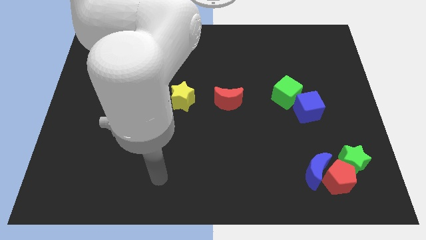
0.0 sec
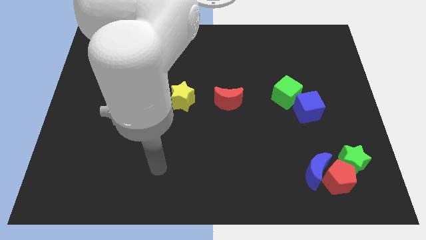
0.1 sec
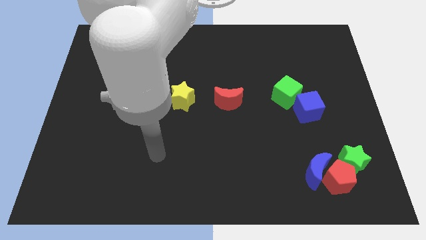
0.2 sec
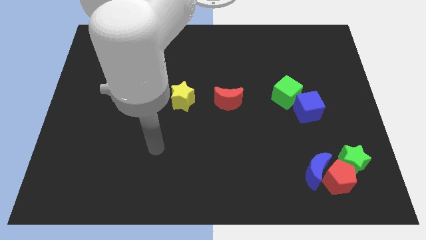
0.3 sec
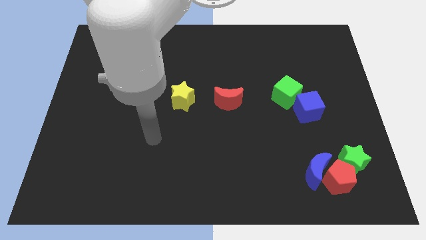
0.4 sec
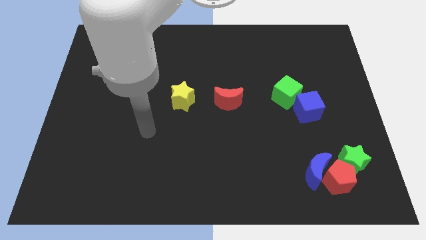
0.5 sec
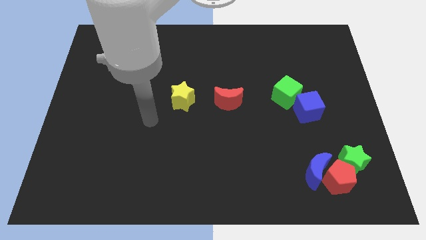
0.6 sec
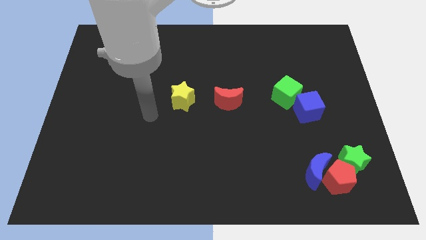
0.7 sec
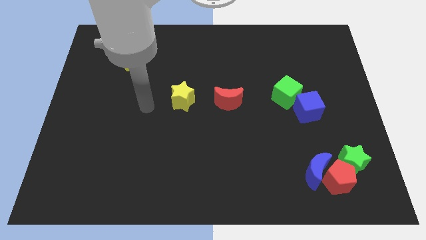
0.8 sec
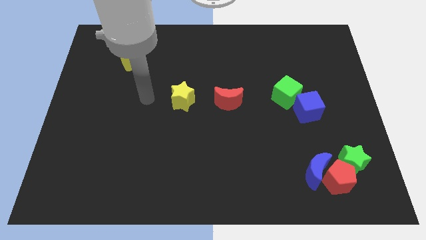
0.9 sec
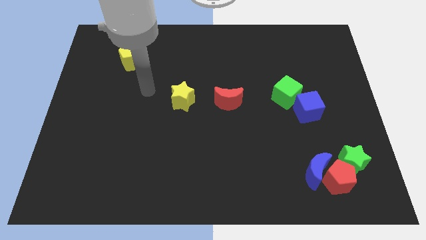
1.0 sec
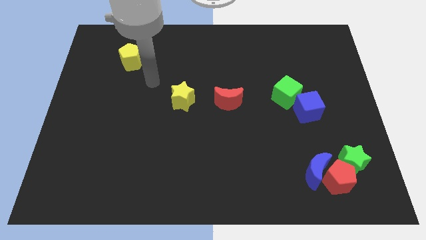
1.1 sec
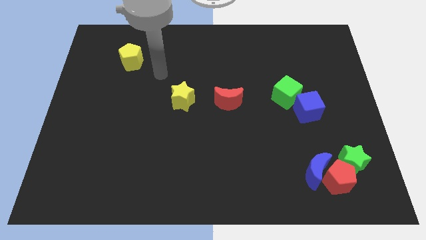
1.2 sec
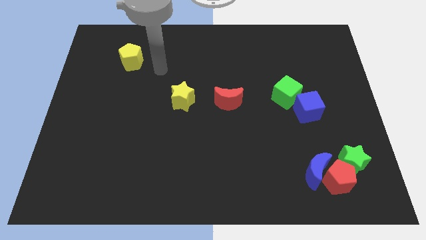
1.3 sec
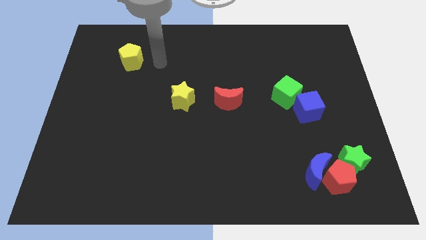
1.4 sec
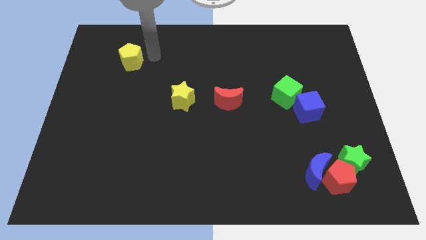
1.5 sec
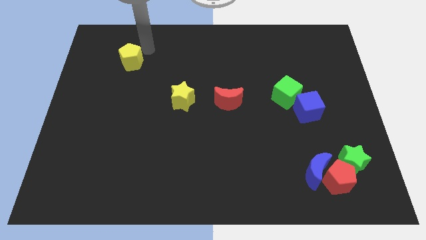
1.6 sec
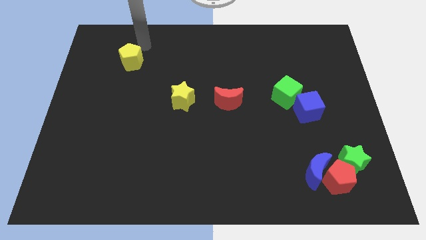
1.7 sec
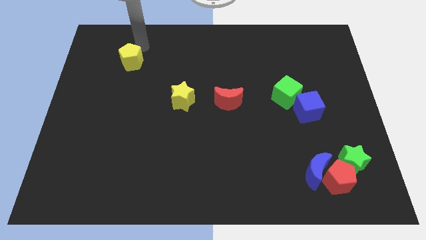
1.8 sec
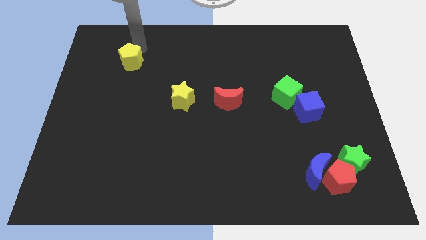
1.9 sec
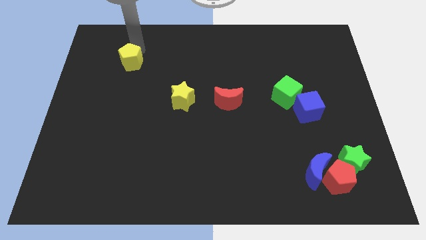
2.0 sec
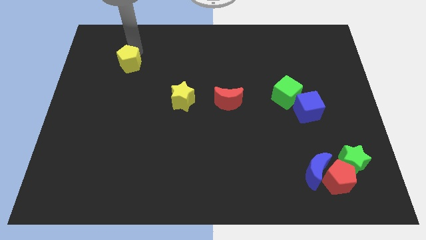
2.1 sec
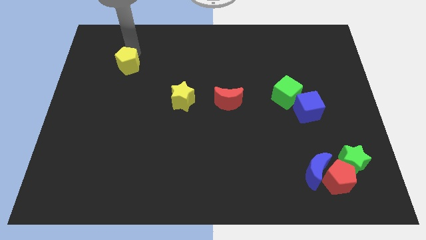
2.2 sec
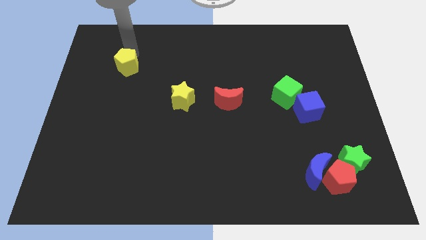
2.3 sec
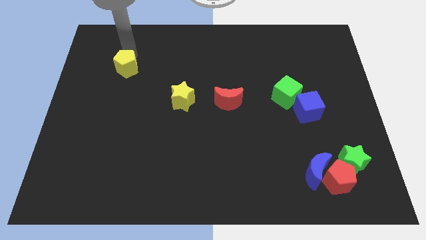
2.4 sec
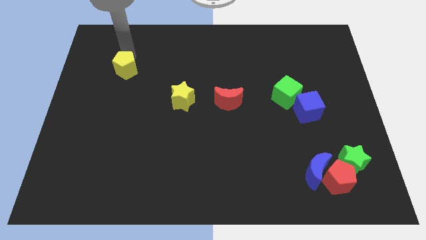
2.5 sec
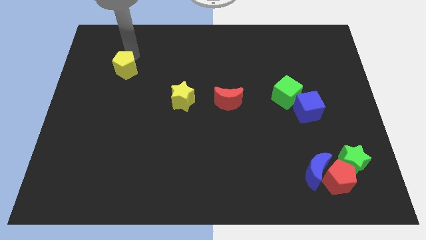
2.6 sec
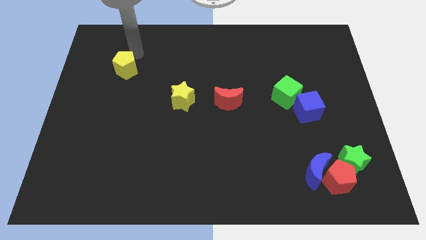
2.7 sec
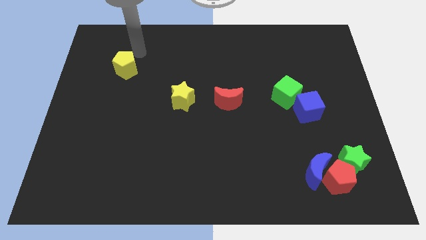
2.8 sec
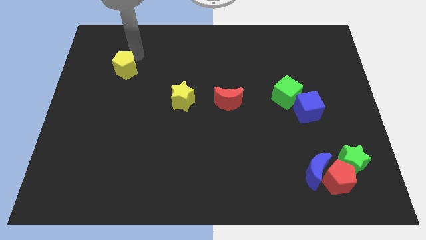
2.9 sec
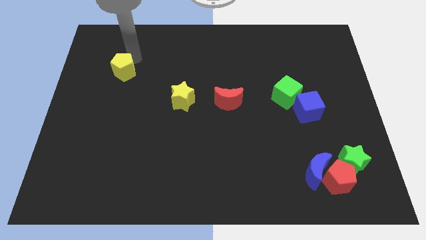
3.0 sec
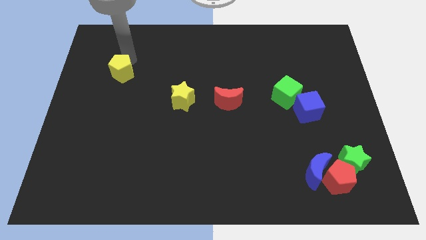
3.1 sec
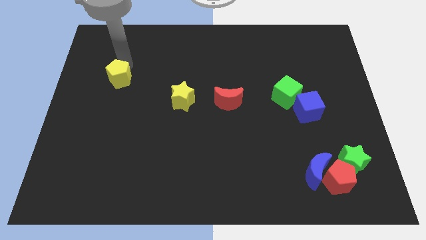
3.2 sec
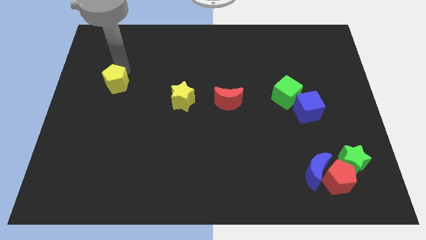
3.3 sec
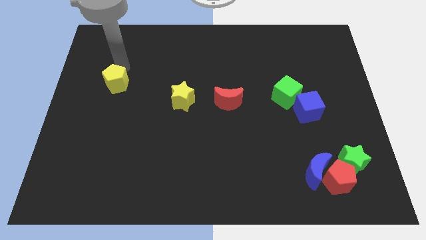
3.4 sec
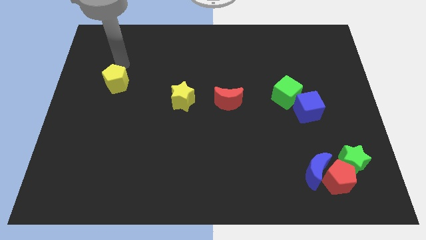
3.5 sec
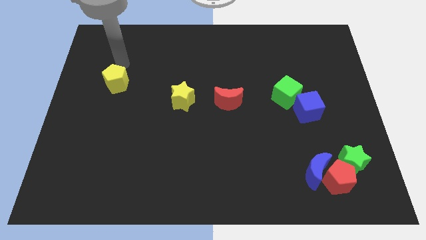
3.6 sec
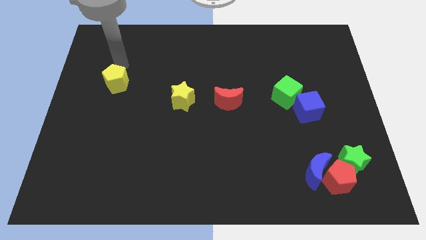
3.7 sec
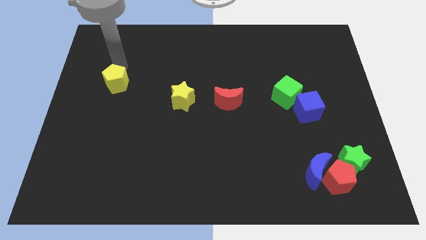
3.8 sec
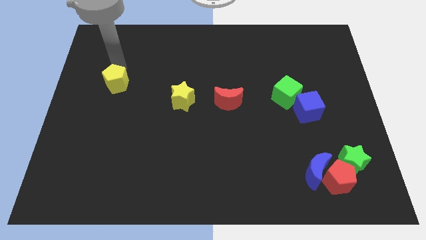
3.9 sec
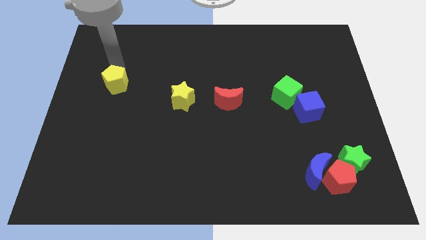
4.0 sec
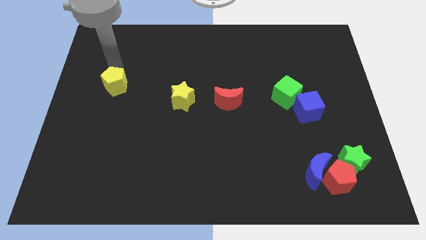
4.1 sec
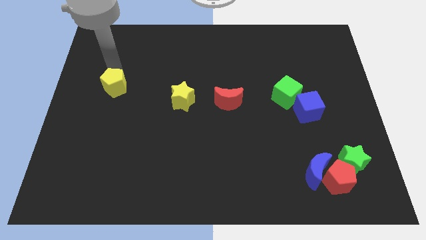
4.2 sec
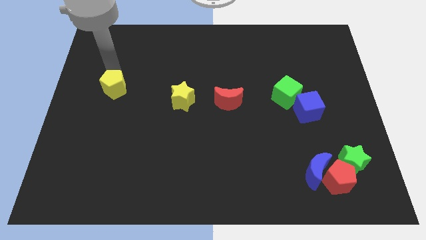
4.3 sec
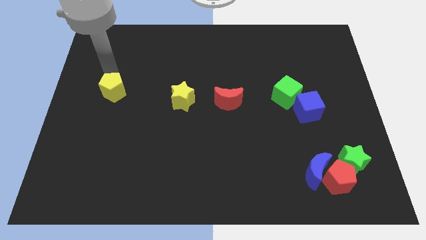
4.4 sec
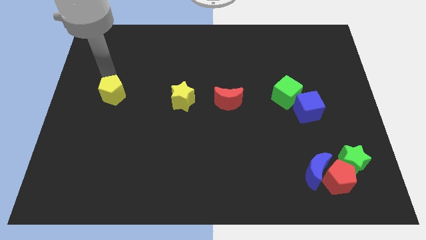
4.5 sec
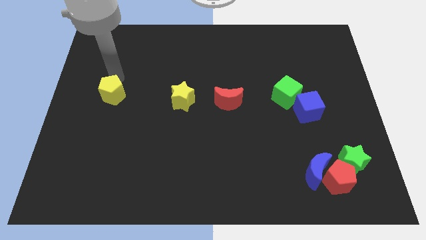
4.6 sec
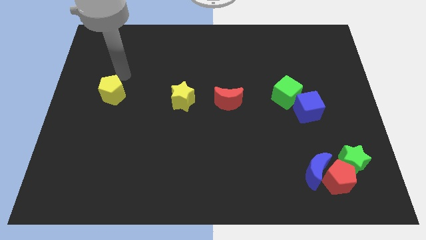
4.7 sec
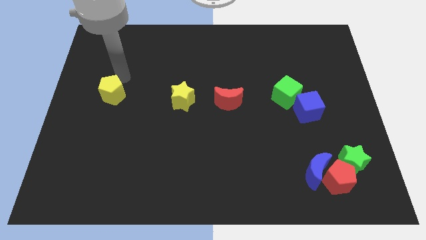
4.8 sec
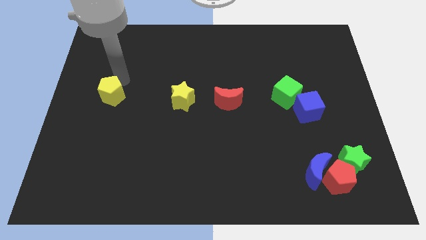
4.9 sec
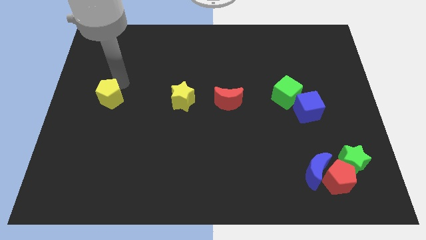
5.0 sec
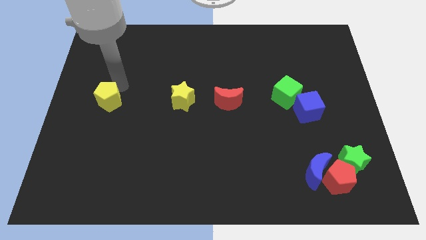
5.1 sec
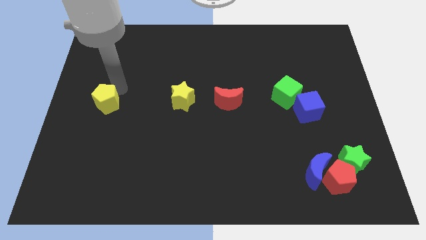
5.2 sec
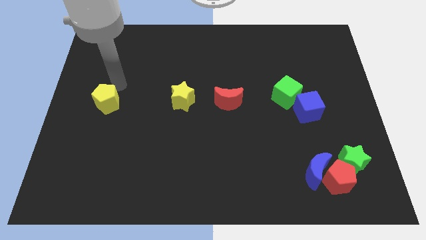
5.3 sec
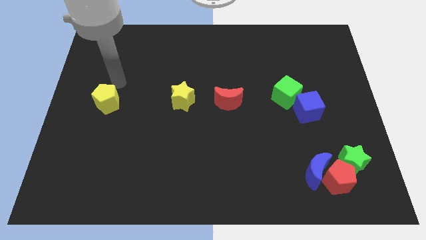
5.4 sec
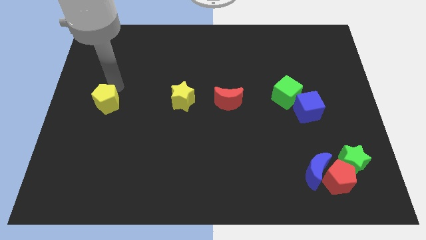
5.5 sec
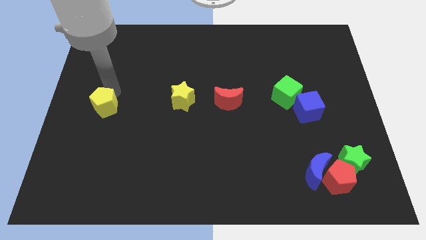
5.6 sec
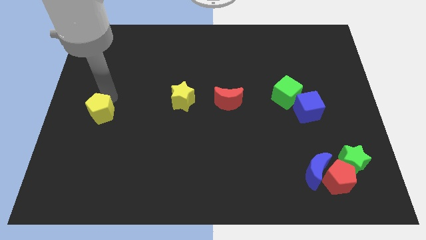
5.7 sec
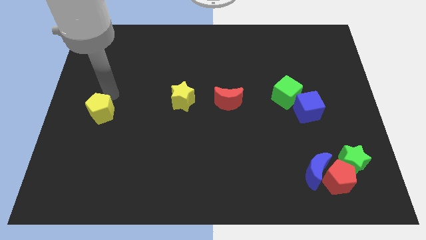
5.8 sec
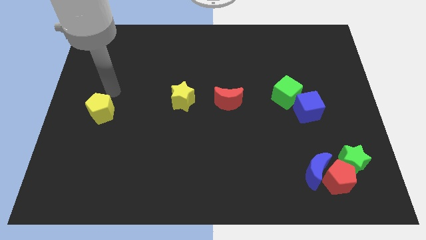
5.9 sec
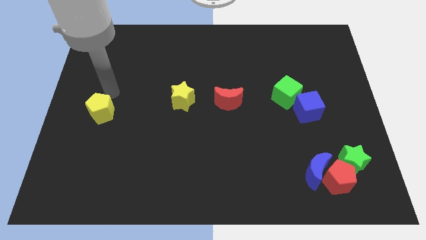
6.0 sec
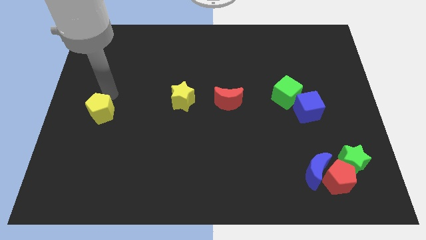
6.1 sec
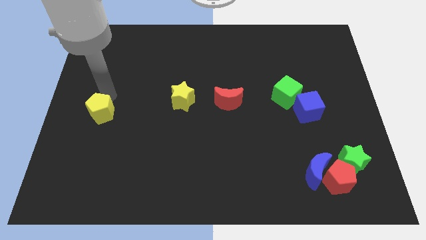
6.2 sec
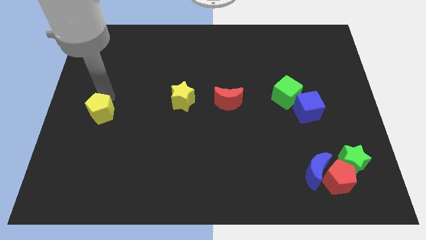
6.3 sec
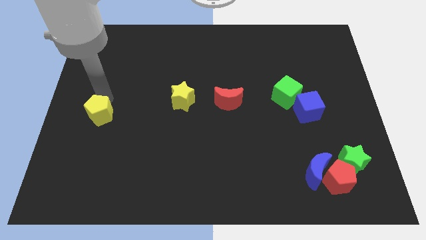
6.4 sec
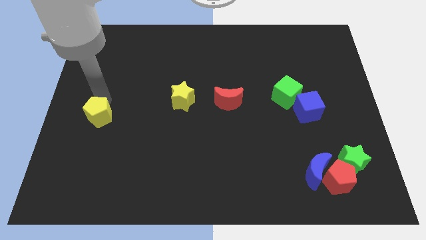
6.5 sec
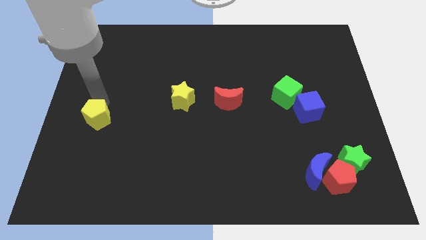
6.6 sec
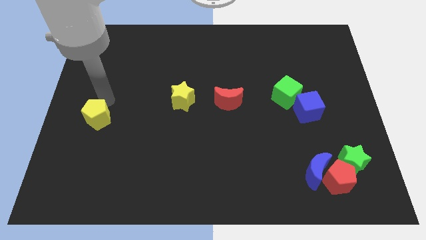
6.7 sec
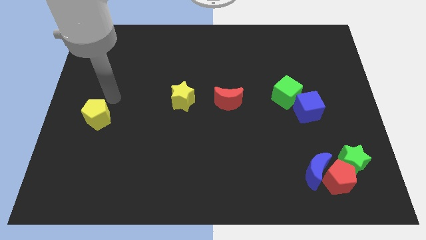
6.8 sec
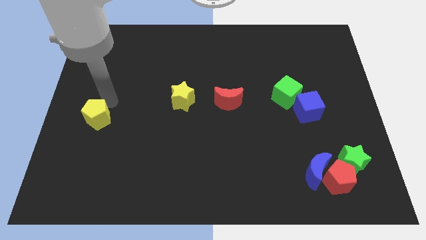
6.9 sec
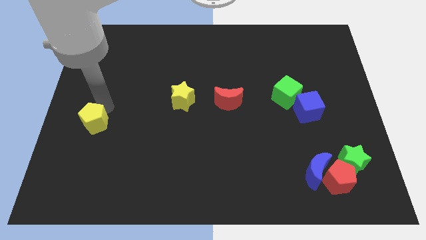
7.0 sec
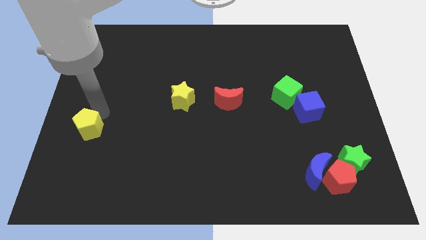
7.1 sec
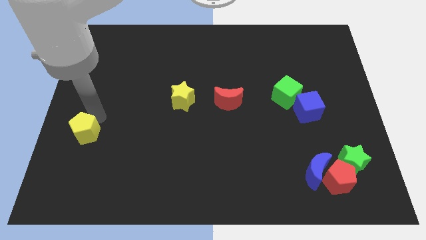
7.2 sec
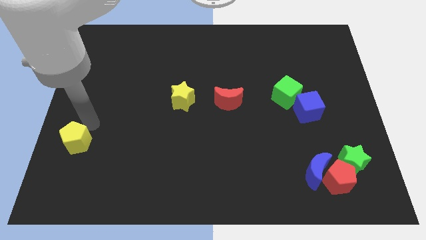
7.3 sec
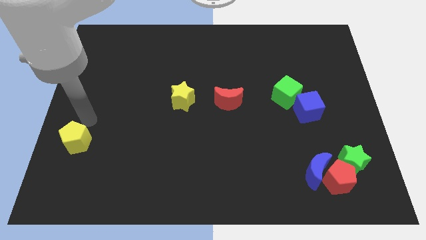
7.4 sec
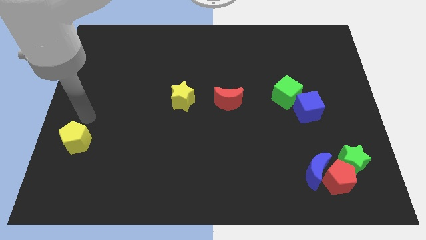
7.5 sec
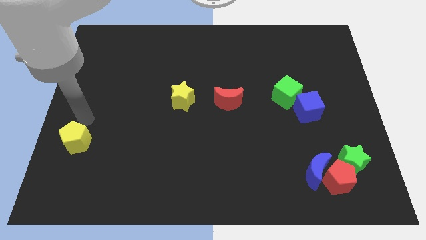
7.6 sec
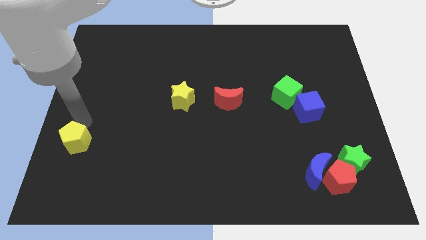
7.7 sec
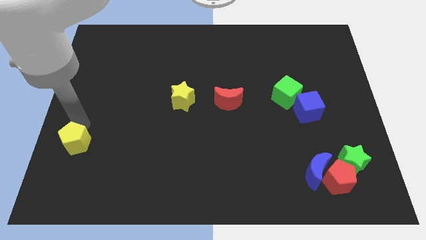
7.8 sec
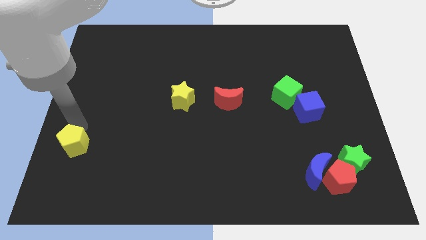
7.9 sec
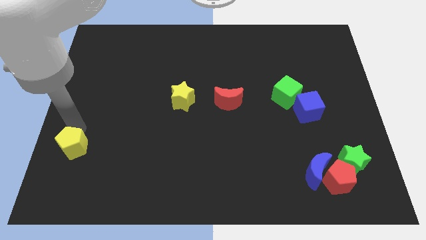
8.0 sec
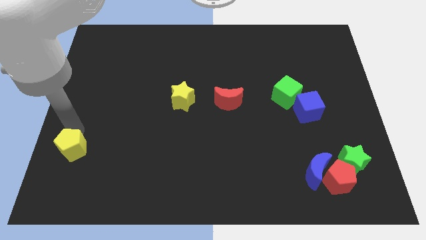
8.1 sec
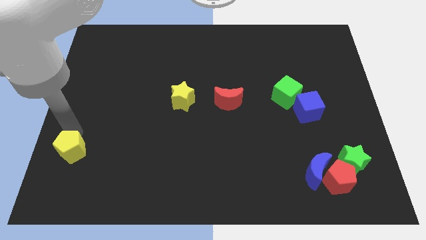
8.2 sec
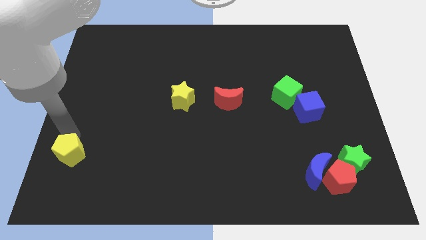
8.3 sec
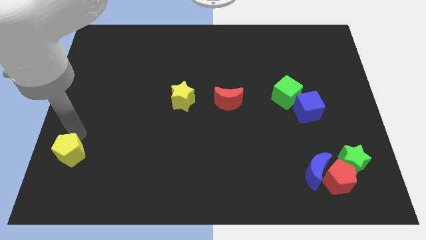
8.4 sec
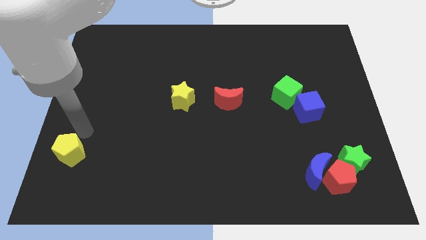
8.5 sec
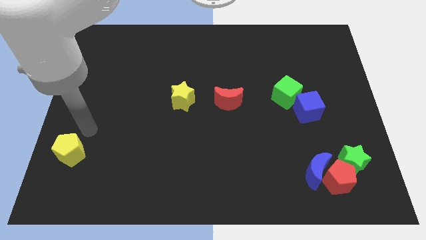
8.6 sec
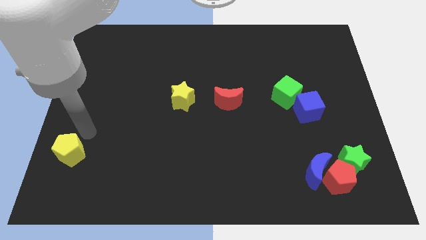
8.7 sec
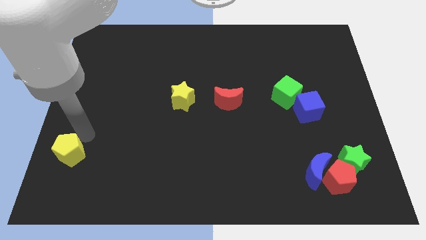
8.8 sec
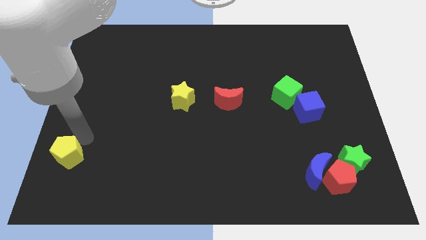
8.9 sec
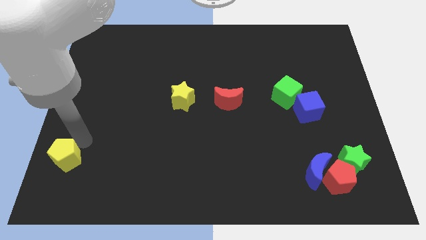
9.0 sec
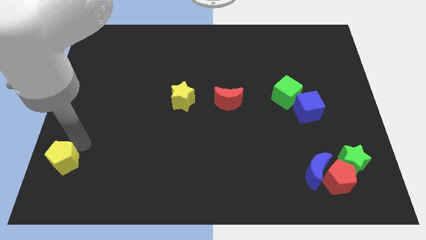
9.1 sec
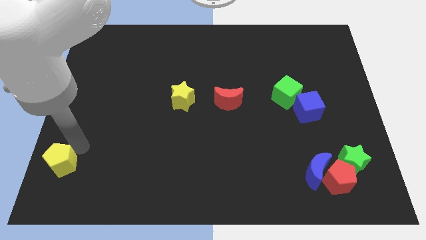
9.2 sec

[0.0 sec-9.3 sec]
move the yellow pentagon to the bottom left
